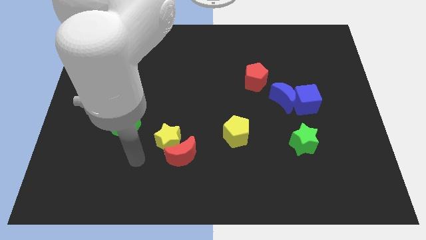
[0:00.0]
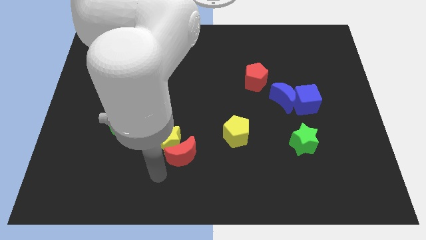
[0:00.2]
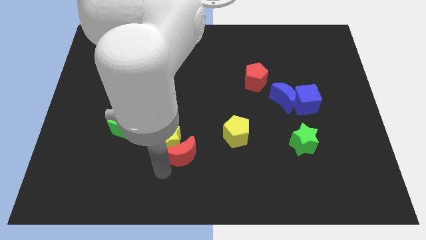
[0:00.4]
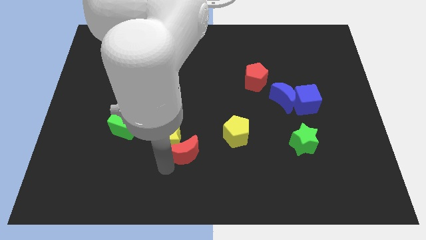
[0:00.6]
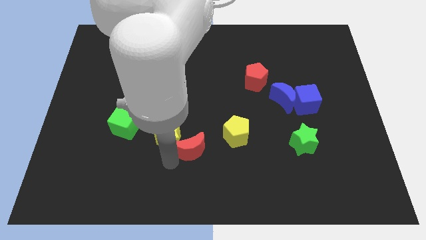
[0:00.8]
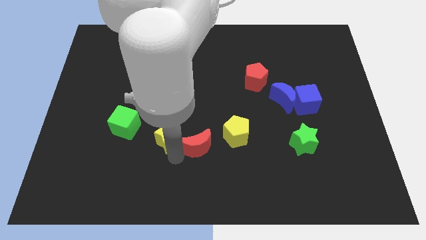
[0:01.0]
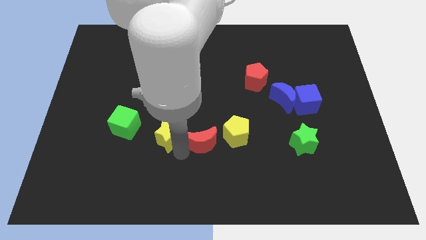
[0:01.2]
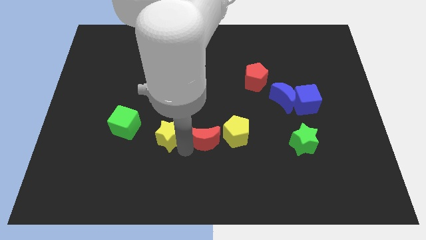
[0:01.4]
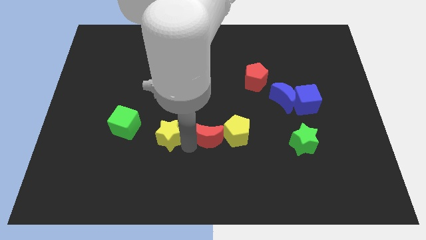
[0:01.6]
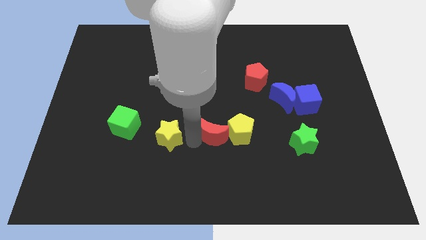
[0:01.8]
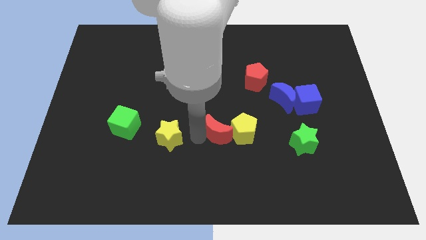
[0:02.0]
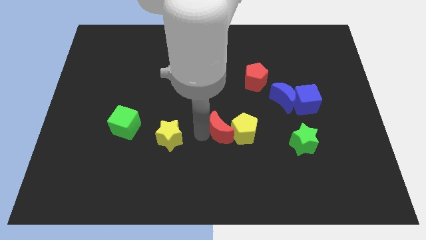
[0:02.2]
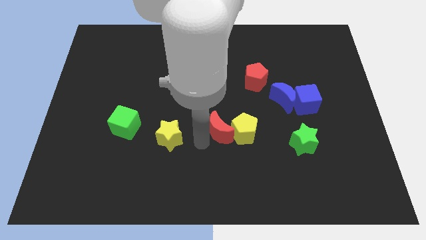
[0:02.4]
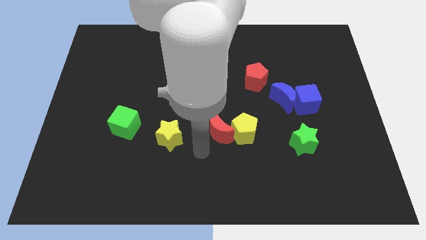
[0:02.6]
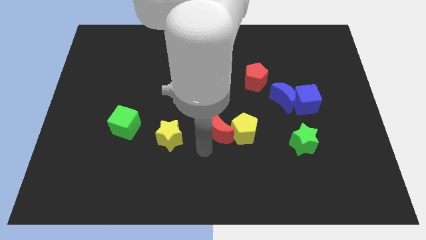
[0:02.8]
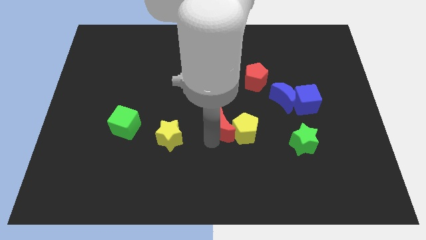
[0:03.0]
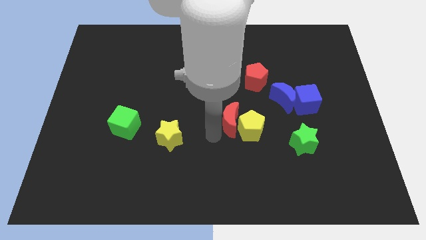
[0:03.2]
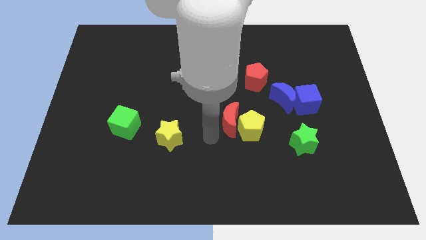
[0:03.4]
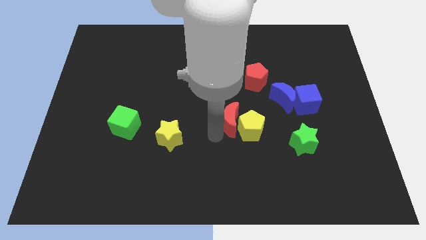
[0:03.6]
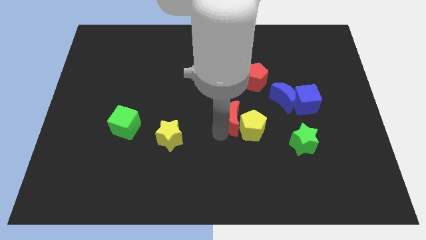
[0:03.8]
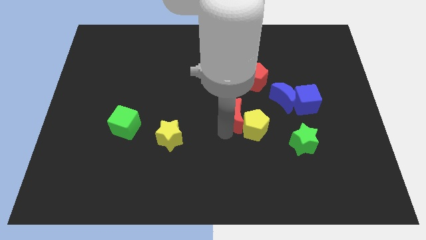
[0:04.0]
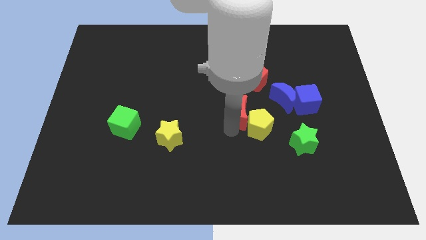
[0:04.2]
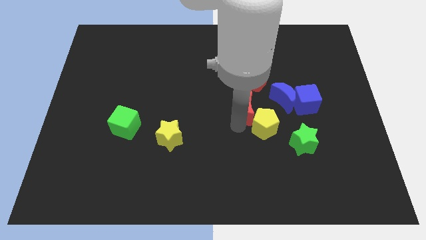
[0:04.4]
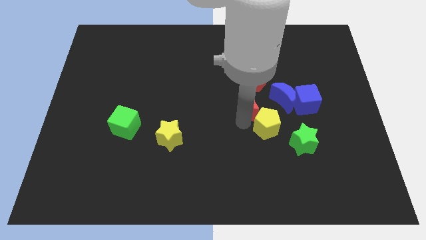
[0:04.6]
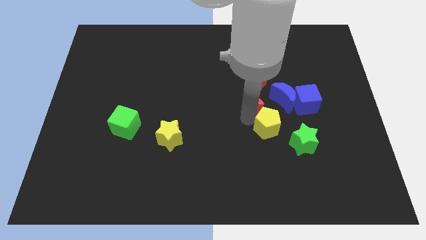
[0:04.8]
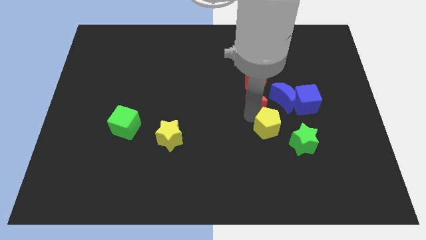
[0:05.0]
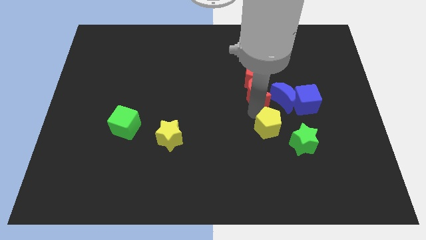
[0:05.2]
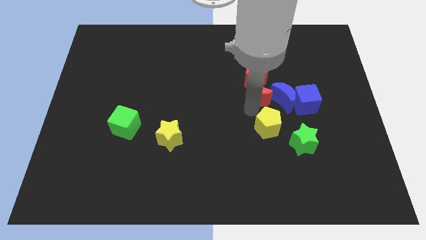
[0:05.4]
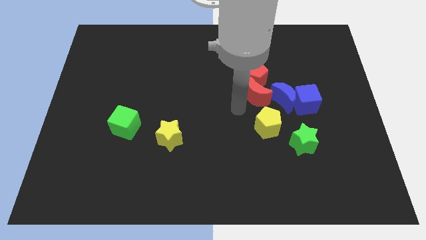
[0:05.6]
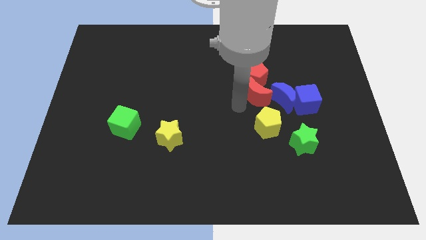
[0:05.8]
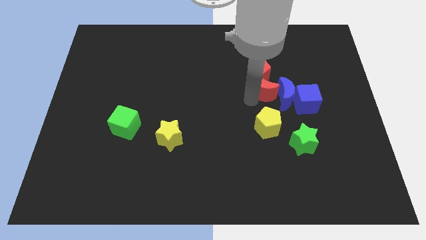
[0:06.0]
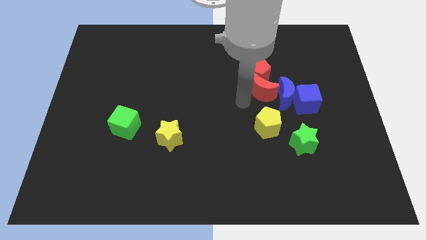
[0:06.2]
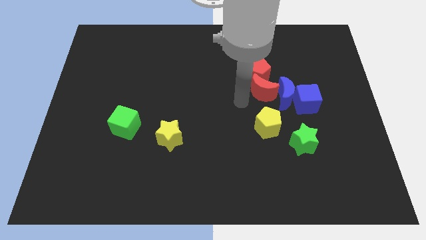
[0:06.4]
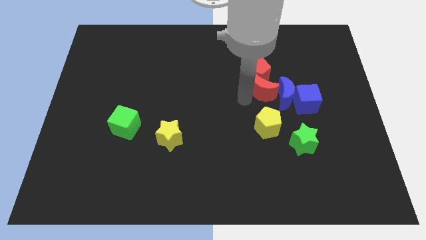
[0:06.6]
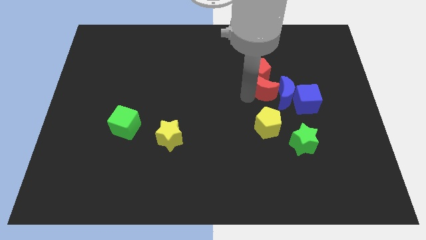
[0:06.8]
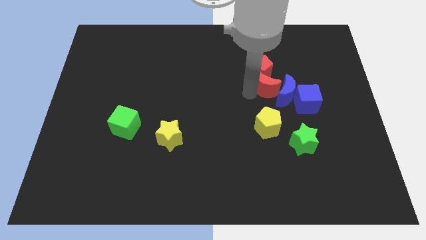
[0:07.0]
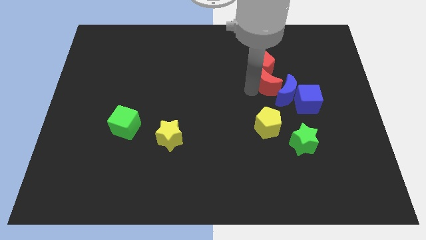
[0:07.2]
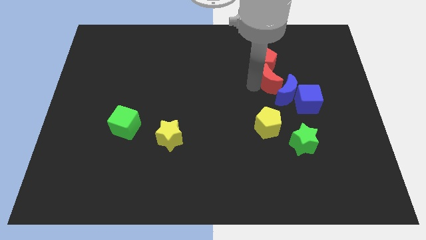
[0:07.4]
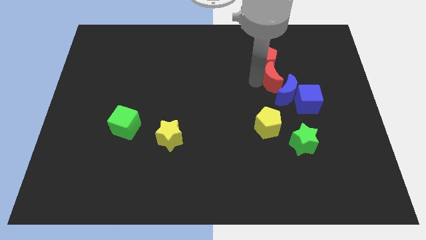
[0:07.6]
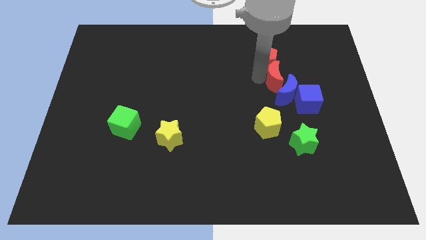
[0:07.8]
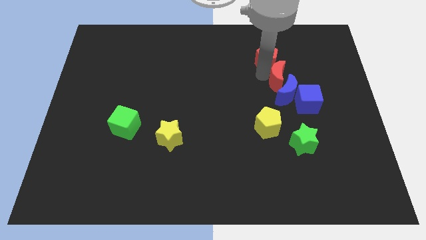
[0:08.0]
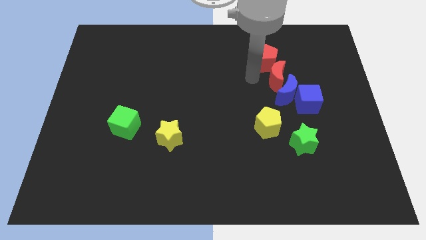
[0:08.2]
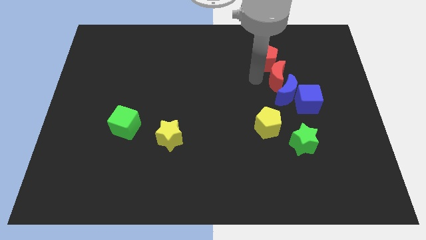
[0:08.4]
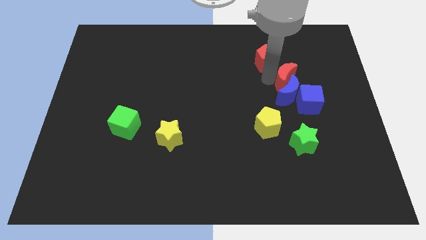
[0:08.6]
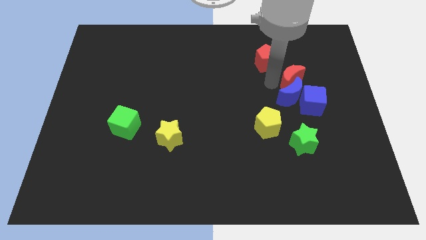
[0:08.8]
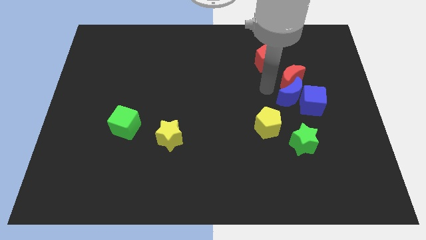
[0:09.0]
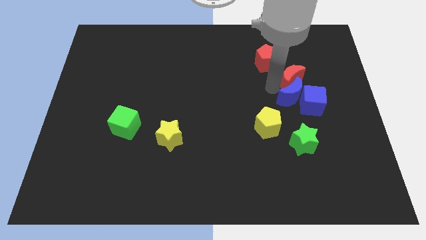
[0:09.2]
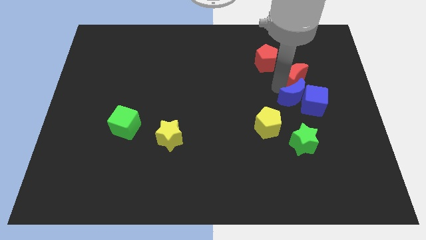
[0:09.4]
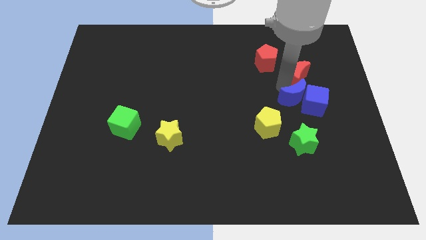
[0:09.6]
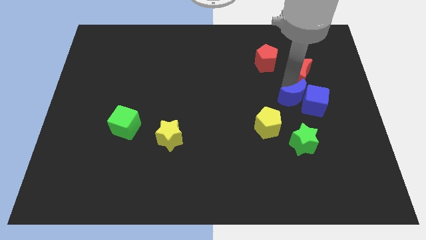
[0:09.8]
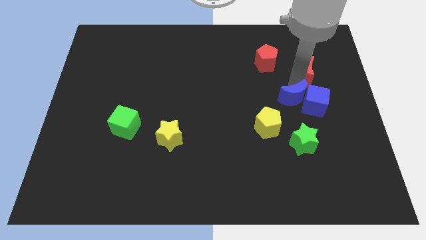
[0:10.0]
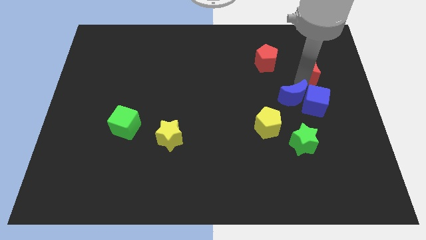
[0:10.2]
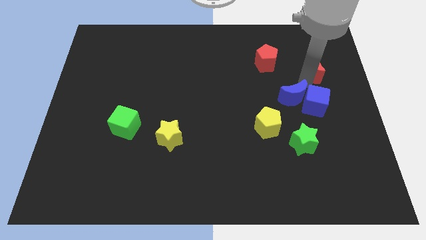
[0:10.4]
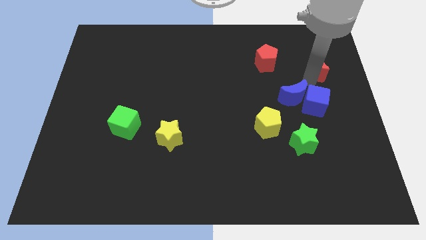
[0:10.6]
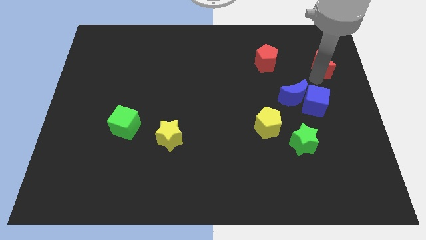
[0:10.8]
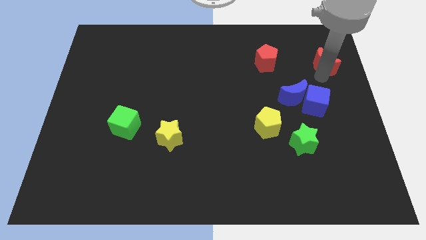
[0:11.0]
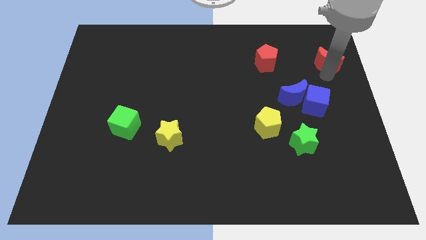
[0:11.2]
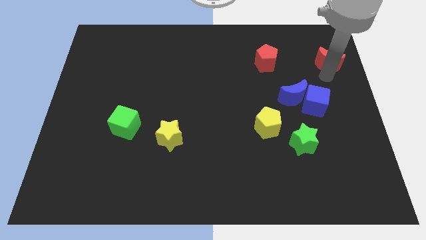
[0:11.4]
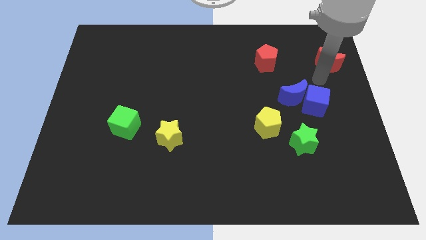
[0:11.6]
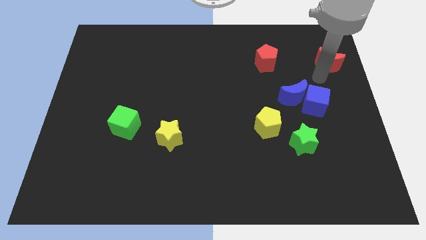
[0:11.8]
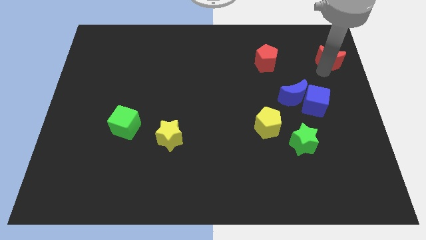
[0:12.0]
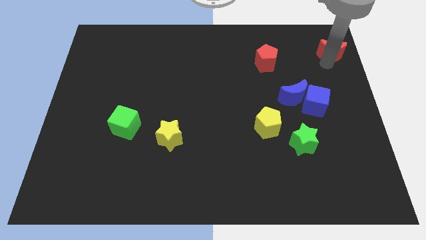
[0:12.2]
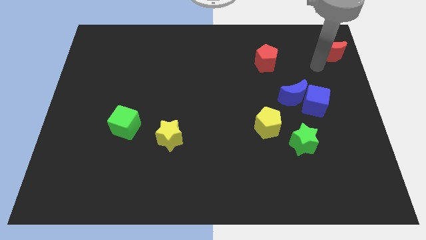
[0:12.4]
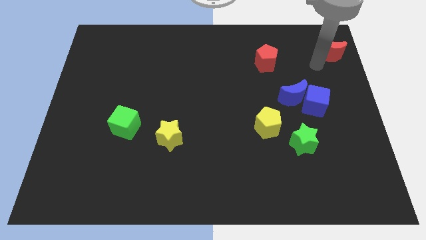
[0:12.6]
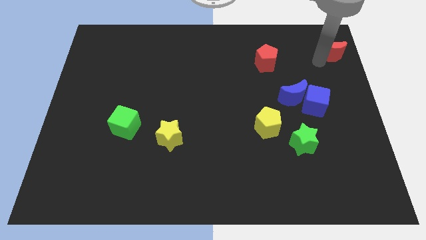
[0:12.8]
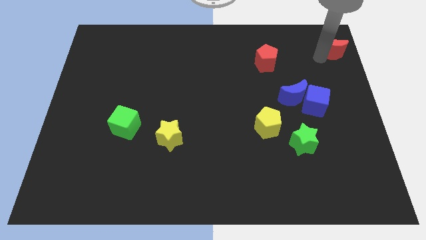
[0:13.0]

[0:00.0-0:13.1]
move the red moon to the top right of the board
